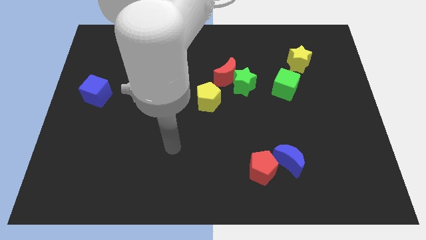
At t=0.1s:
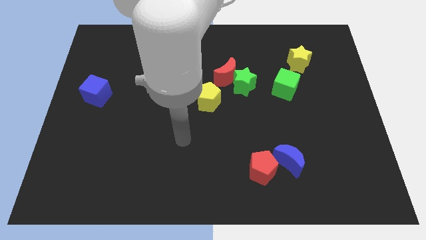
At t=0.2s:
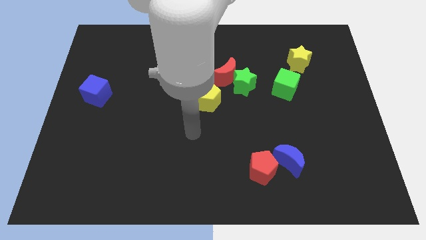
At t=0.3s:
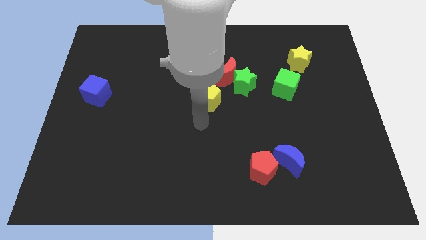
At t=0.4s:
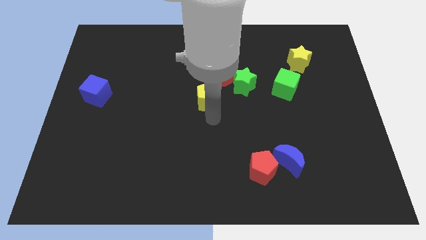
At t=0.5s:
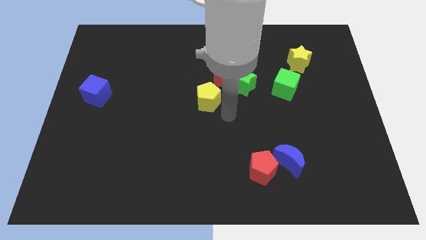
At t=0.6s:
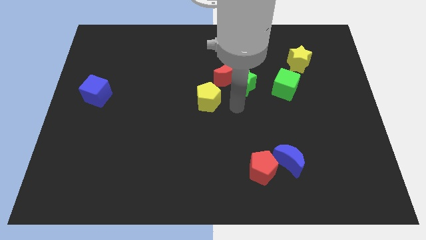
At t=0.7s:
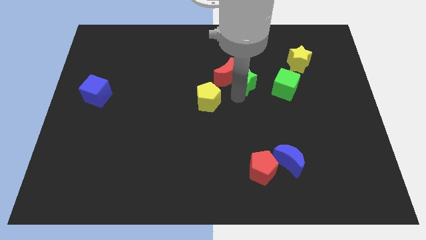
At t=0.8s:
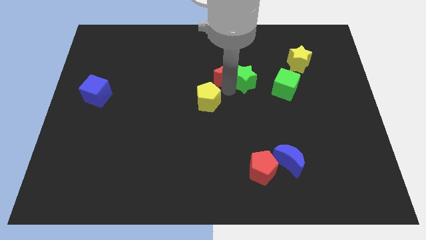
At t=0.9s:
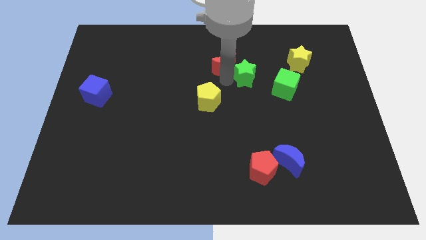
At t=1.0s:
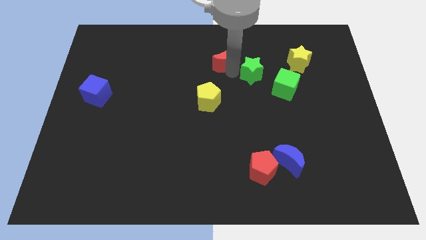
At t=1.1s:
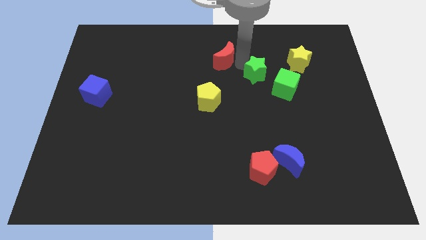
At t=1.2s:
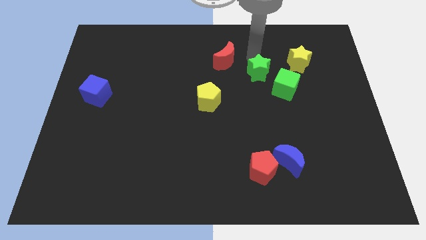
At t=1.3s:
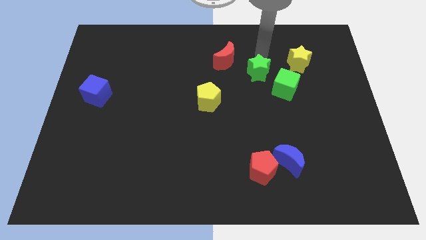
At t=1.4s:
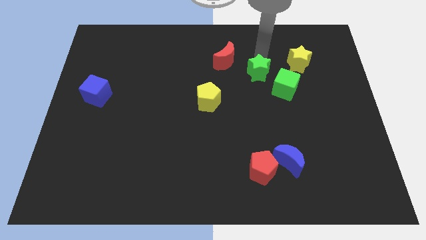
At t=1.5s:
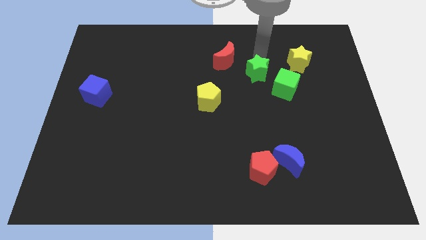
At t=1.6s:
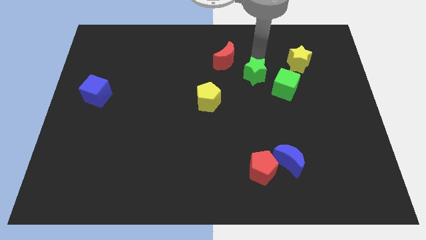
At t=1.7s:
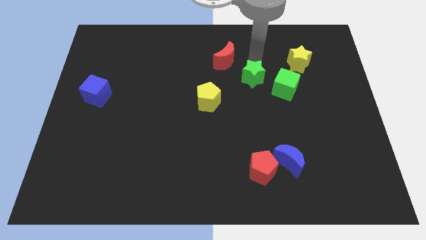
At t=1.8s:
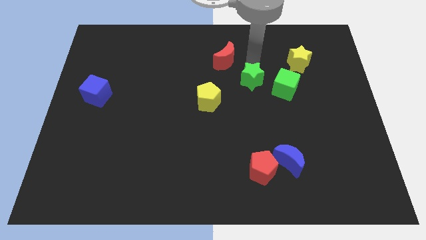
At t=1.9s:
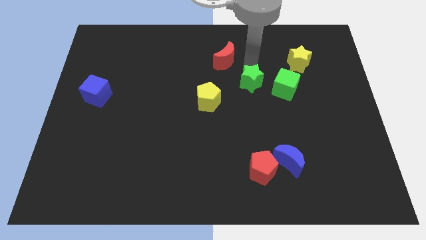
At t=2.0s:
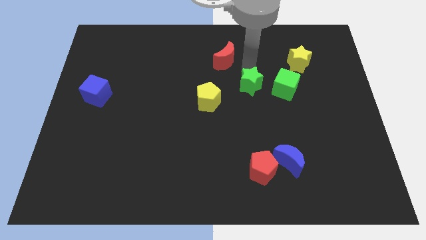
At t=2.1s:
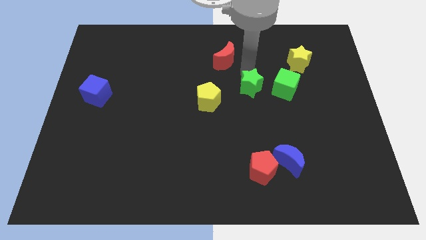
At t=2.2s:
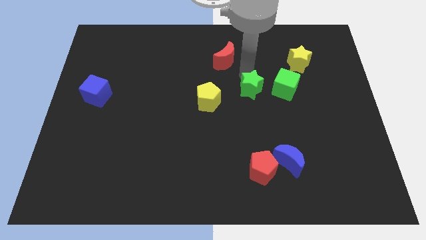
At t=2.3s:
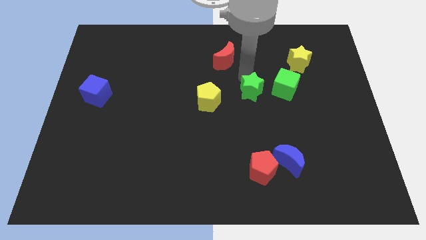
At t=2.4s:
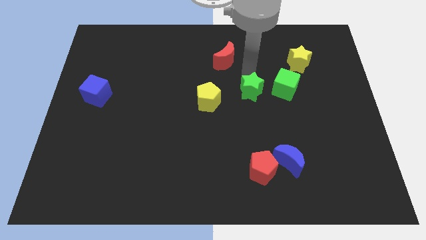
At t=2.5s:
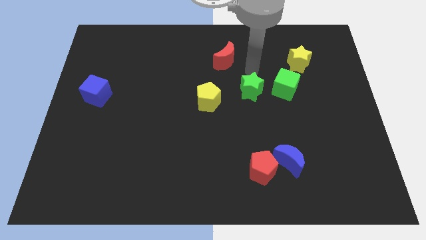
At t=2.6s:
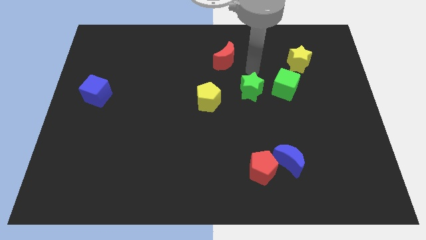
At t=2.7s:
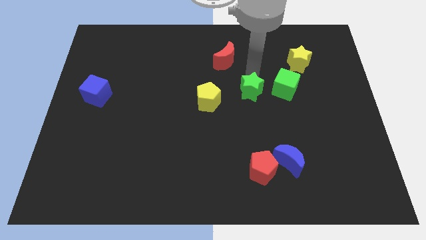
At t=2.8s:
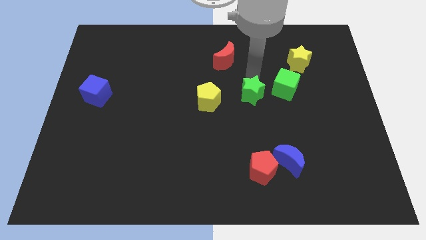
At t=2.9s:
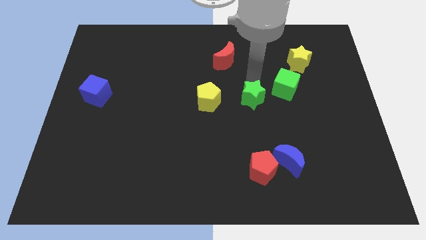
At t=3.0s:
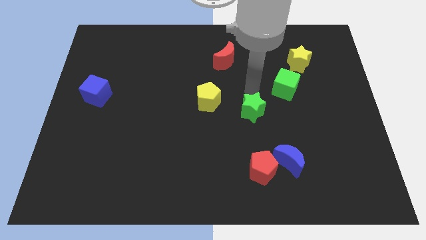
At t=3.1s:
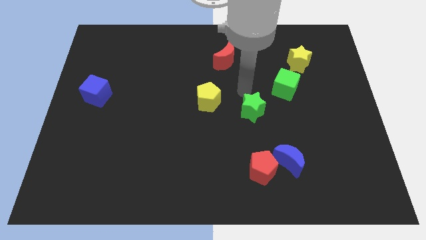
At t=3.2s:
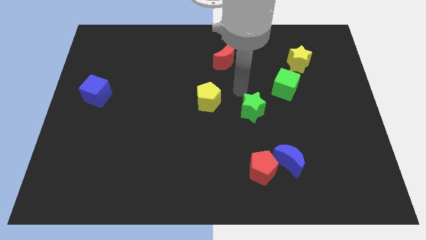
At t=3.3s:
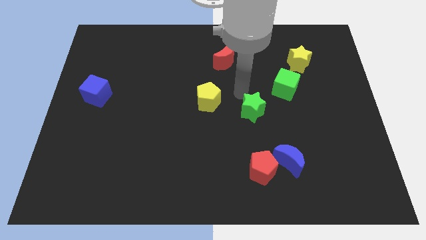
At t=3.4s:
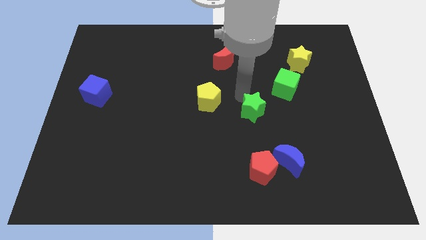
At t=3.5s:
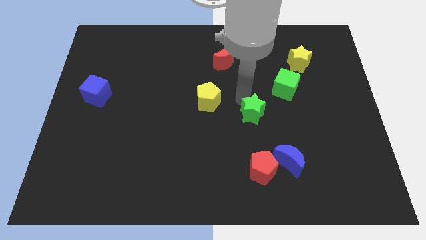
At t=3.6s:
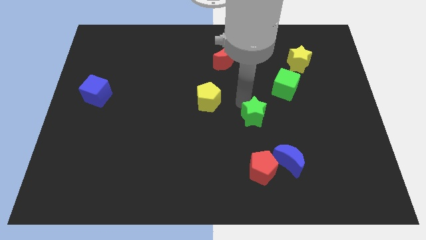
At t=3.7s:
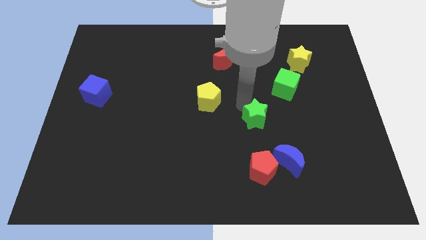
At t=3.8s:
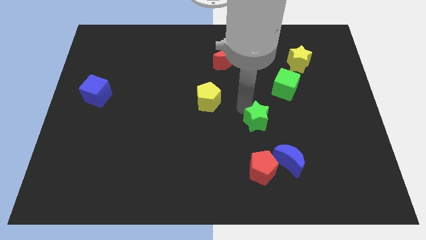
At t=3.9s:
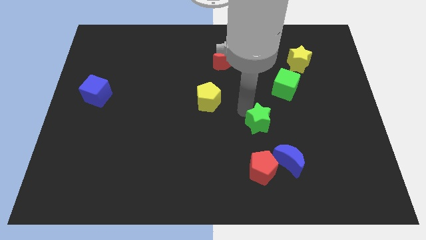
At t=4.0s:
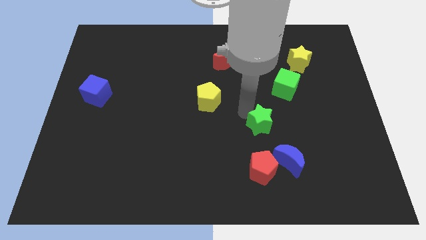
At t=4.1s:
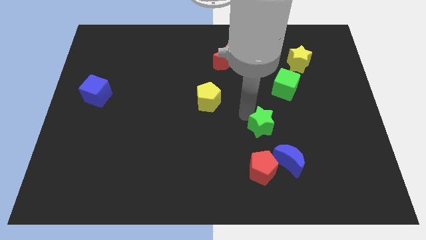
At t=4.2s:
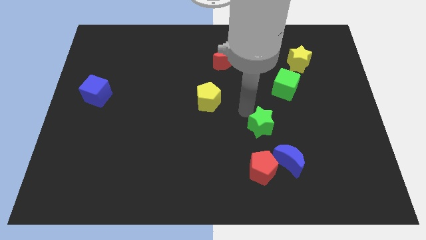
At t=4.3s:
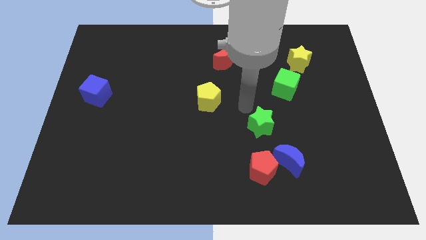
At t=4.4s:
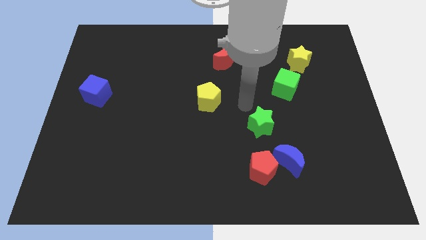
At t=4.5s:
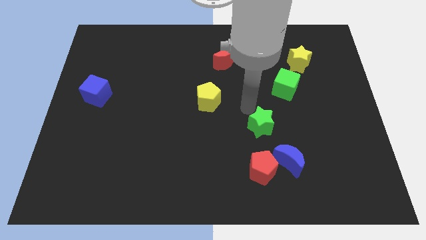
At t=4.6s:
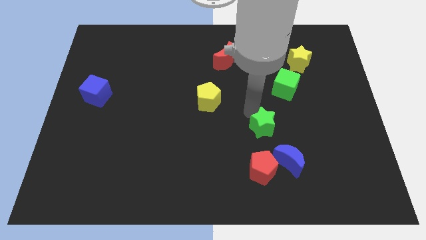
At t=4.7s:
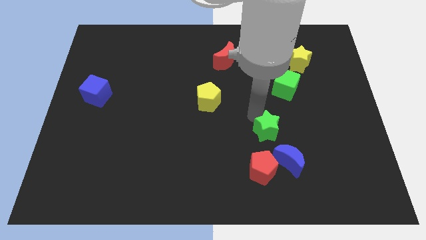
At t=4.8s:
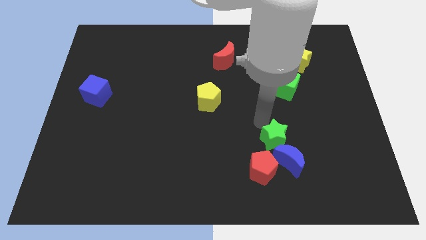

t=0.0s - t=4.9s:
move the green star next to the blue moon

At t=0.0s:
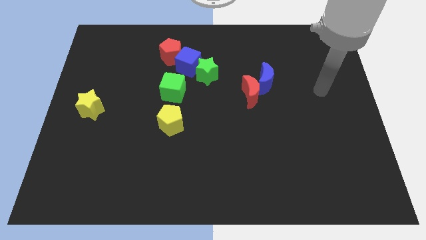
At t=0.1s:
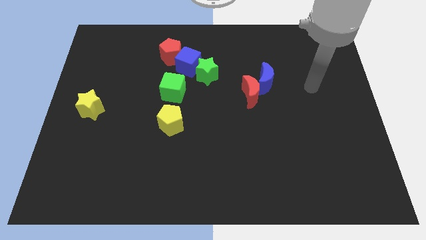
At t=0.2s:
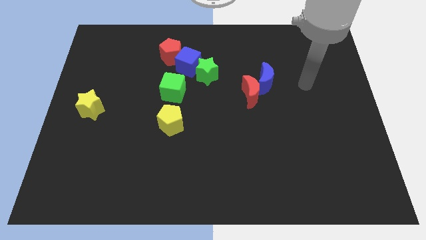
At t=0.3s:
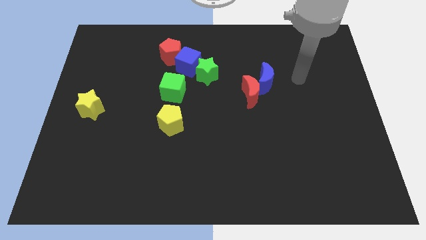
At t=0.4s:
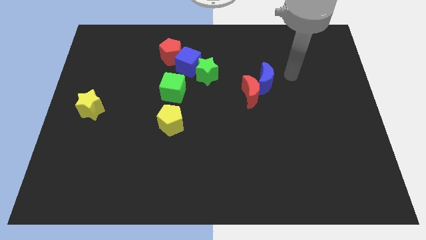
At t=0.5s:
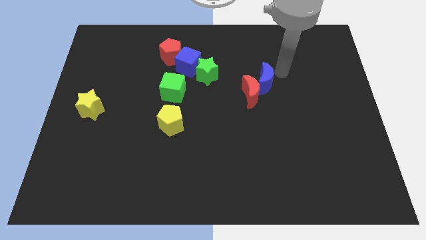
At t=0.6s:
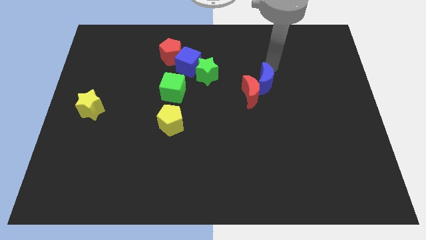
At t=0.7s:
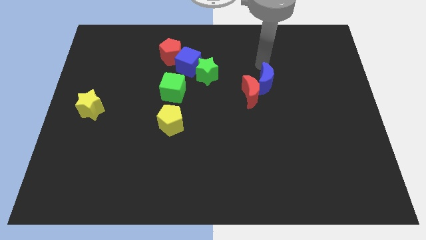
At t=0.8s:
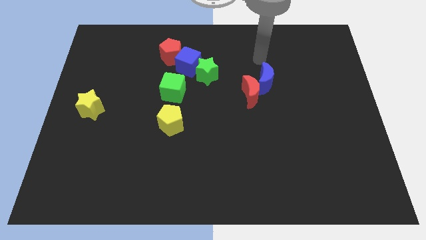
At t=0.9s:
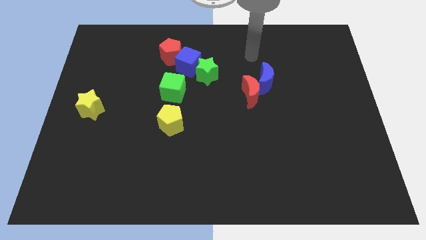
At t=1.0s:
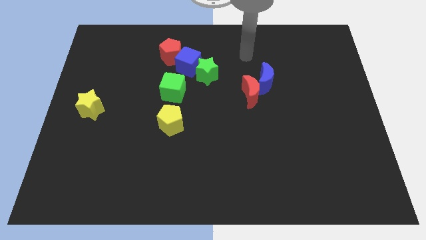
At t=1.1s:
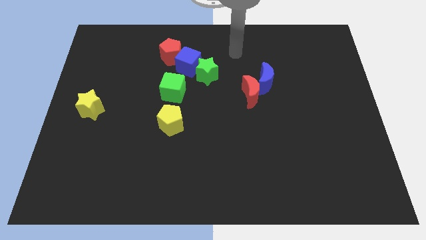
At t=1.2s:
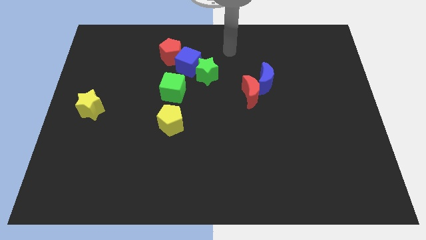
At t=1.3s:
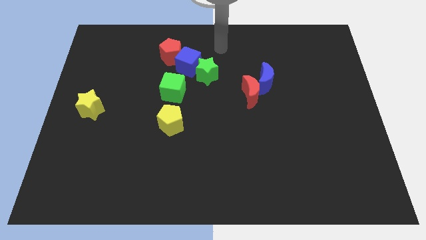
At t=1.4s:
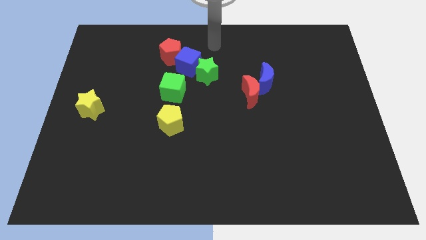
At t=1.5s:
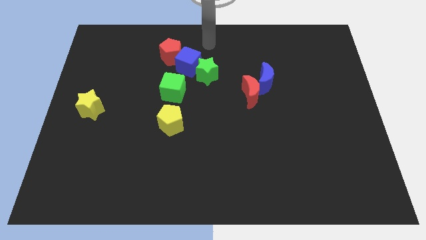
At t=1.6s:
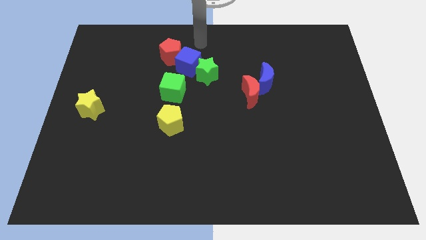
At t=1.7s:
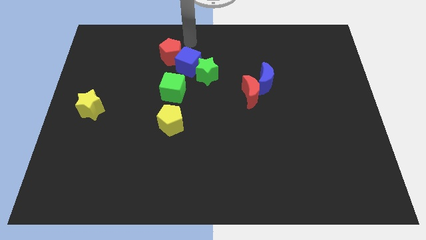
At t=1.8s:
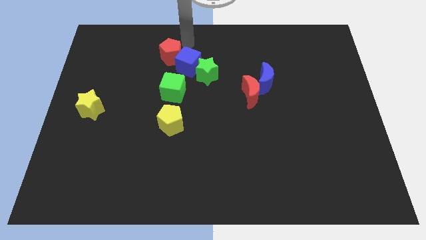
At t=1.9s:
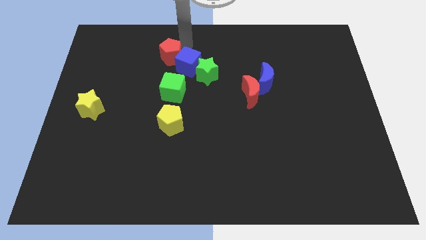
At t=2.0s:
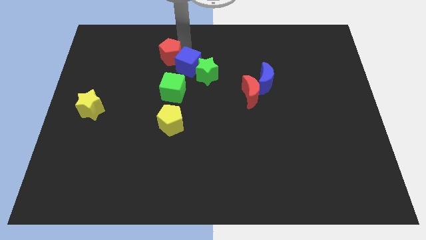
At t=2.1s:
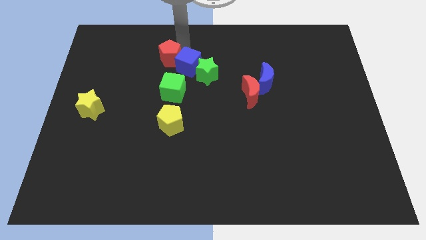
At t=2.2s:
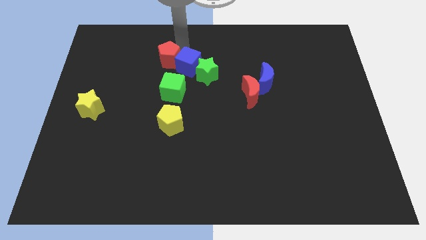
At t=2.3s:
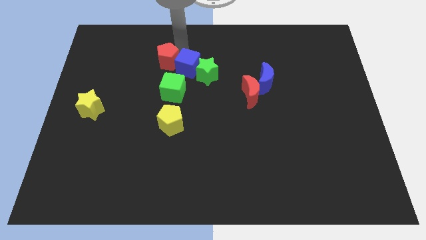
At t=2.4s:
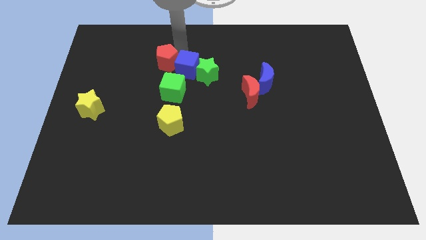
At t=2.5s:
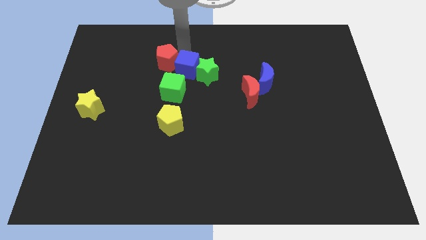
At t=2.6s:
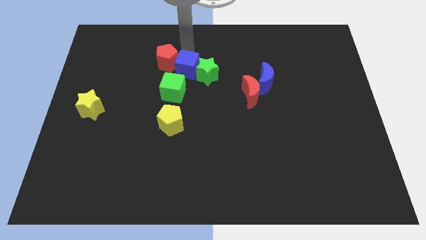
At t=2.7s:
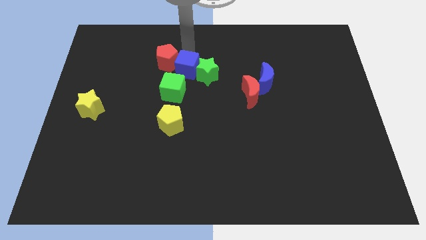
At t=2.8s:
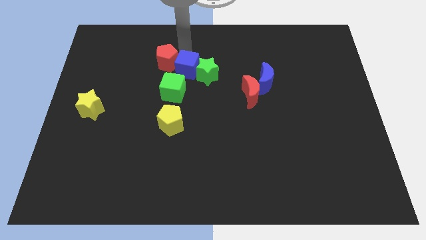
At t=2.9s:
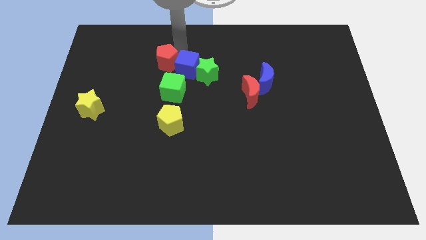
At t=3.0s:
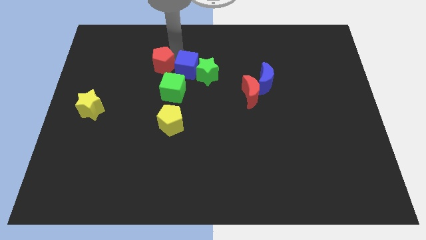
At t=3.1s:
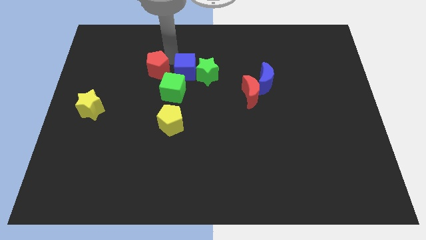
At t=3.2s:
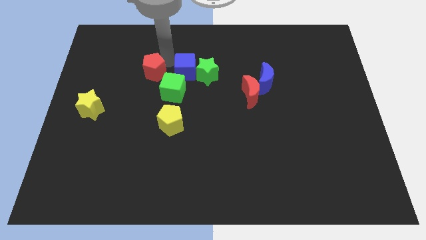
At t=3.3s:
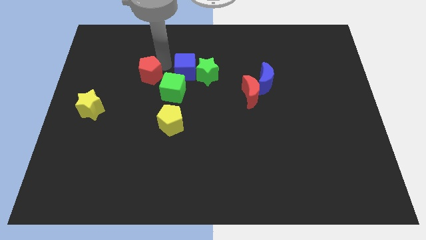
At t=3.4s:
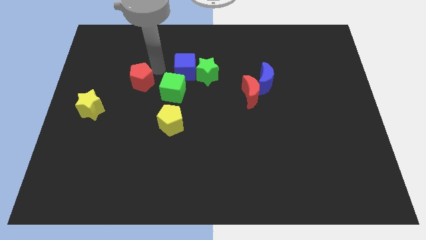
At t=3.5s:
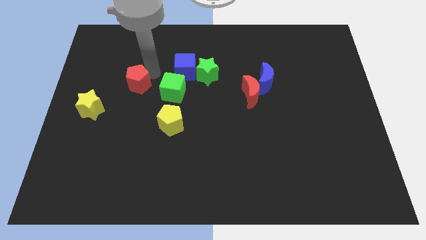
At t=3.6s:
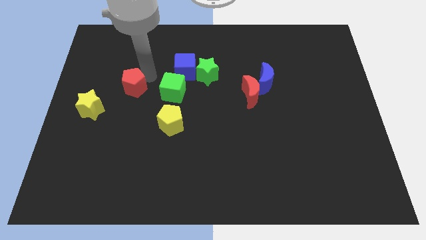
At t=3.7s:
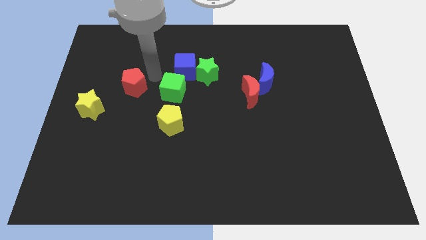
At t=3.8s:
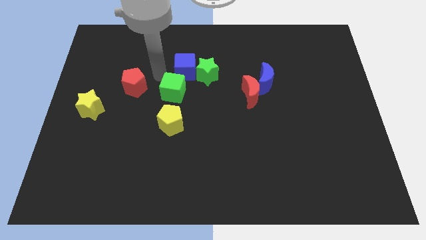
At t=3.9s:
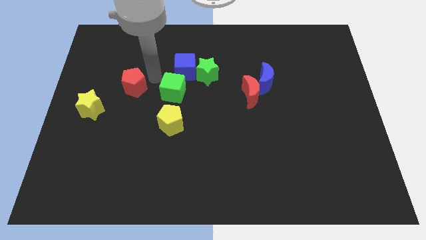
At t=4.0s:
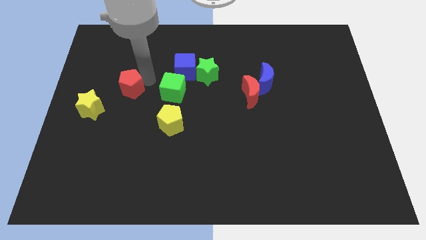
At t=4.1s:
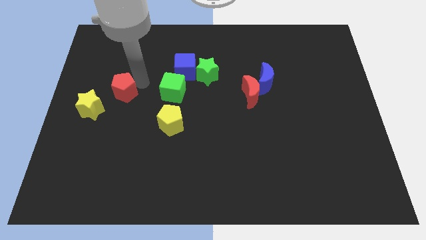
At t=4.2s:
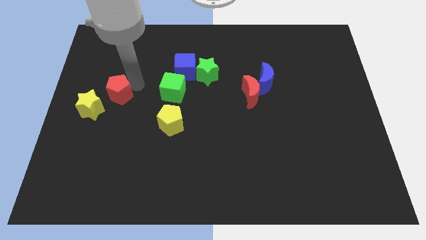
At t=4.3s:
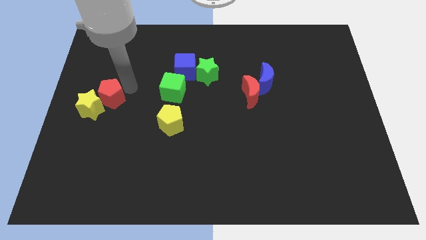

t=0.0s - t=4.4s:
push the red pentagon to the yellow star
